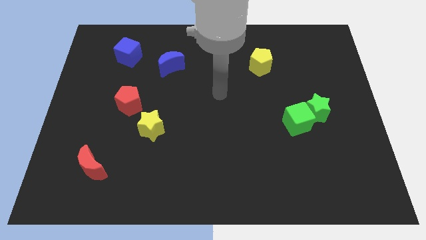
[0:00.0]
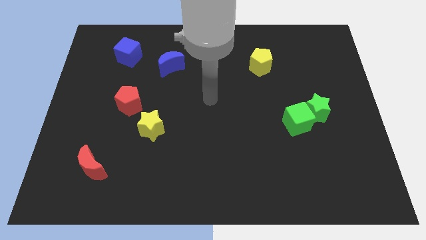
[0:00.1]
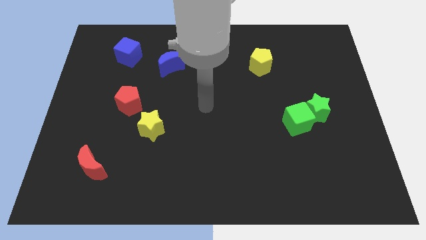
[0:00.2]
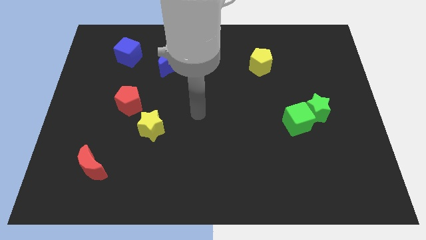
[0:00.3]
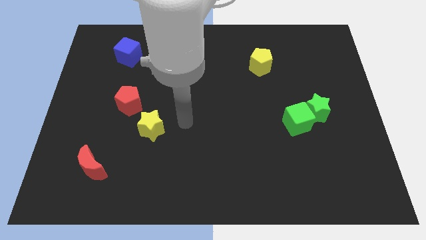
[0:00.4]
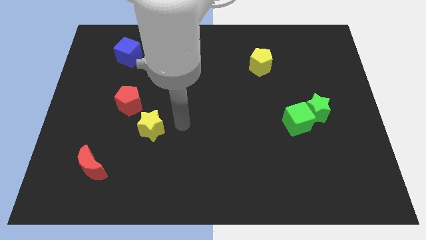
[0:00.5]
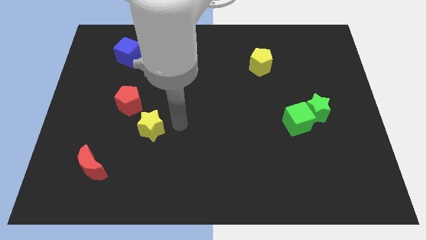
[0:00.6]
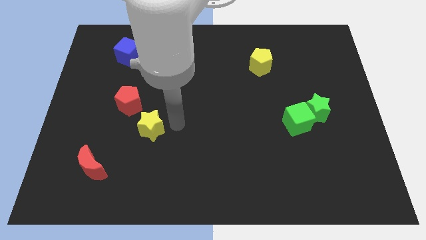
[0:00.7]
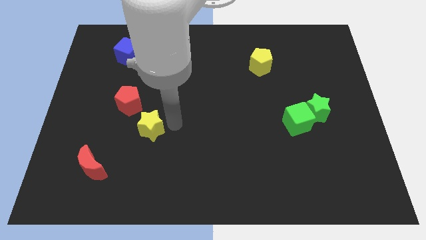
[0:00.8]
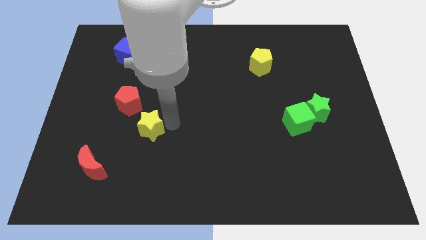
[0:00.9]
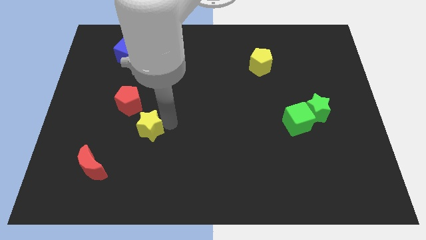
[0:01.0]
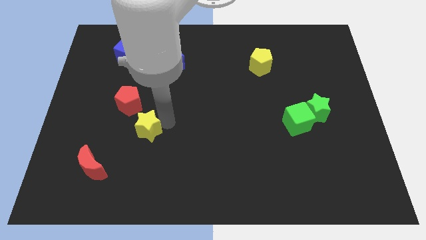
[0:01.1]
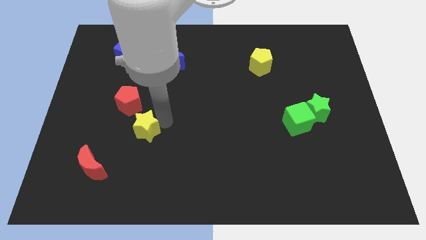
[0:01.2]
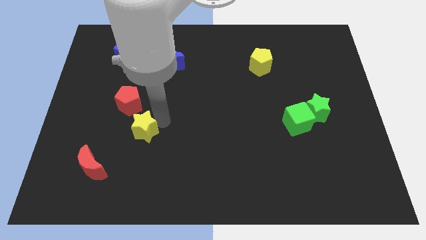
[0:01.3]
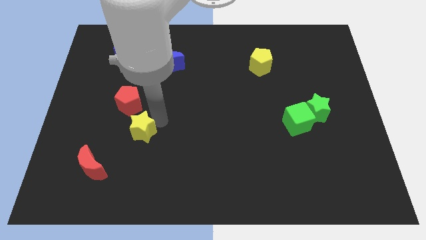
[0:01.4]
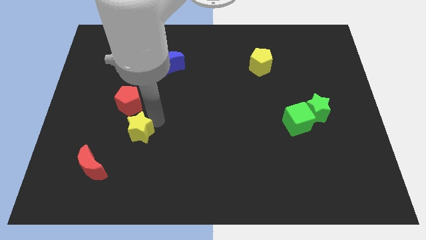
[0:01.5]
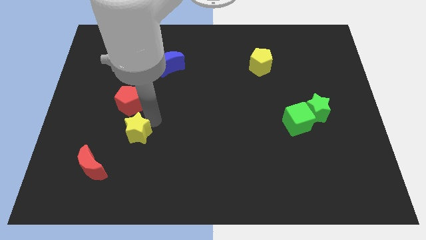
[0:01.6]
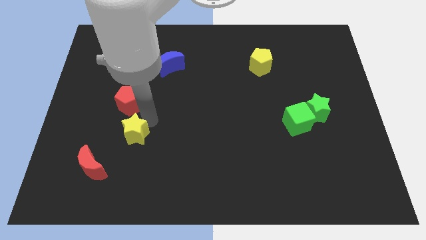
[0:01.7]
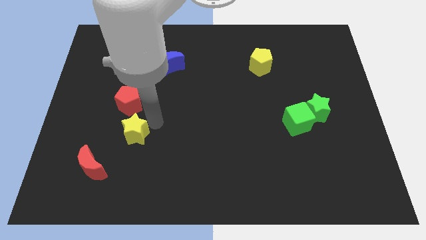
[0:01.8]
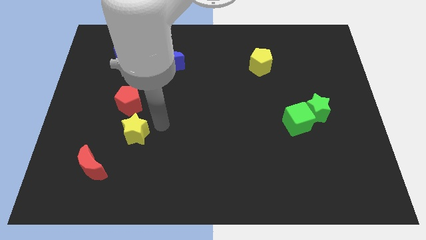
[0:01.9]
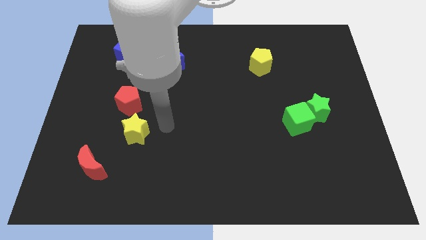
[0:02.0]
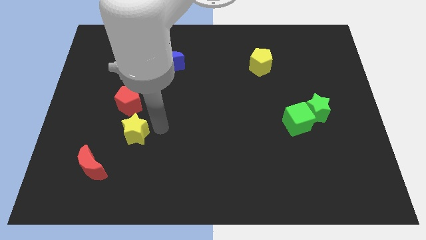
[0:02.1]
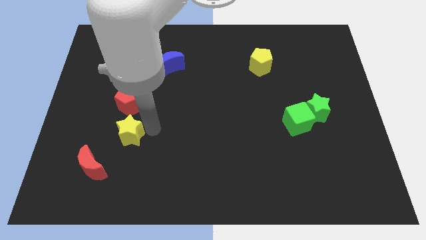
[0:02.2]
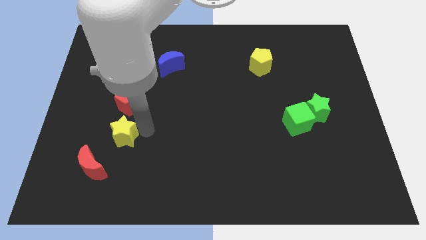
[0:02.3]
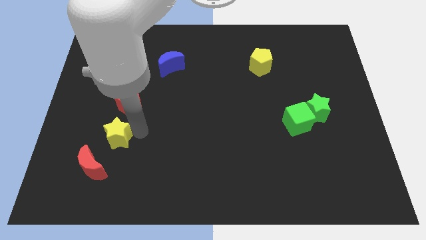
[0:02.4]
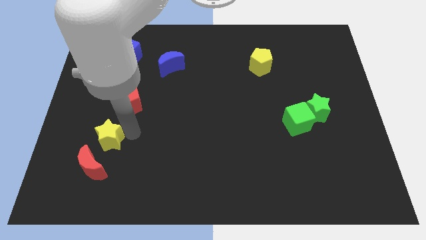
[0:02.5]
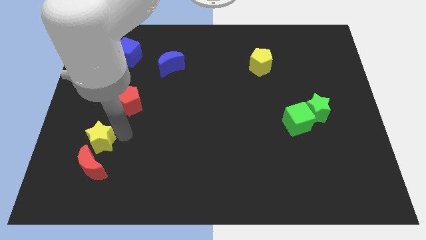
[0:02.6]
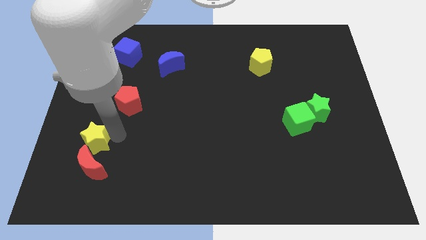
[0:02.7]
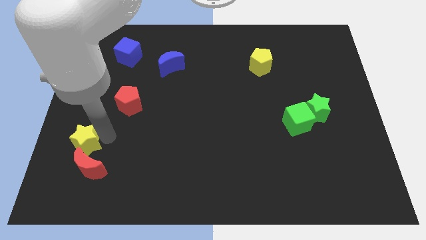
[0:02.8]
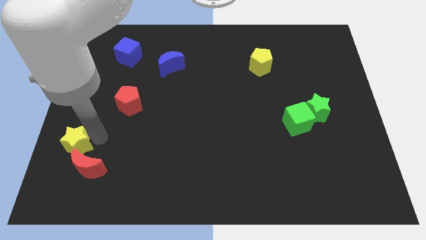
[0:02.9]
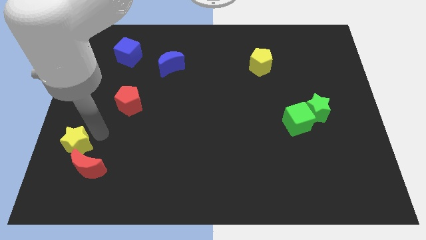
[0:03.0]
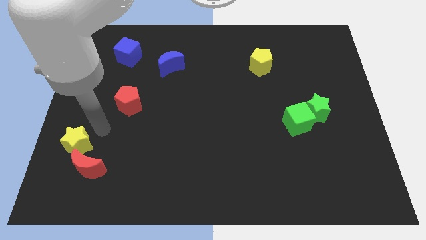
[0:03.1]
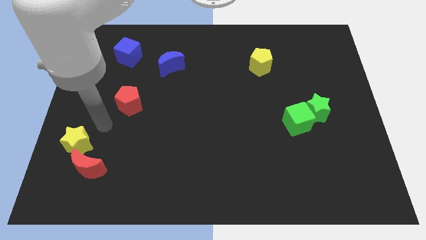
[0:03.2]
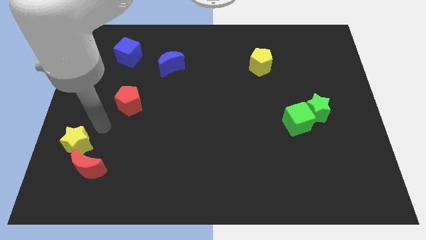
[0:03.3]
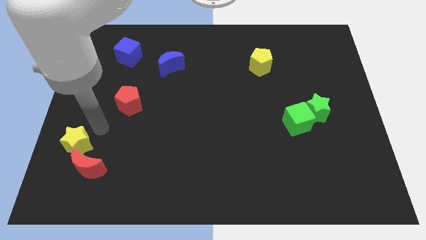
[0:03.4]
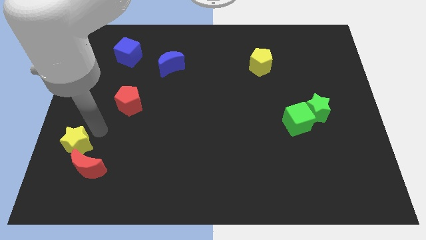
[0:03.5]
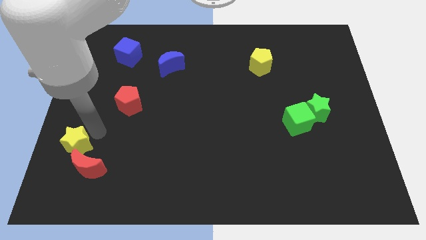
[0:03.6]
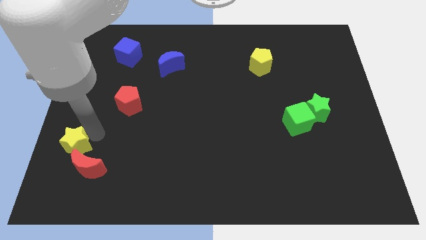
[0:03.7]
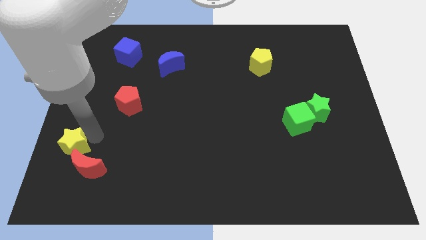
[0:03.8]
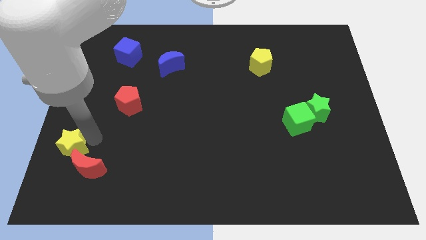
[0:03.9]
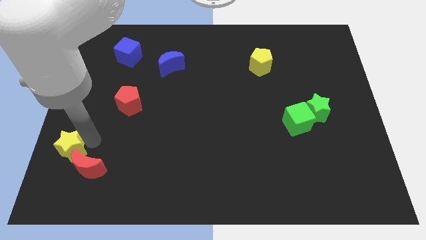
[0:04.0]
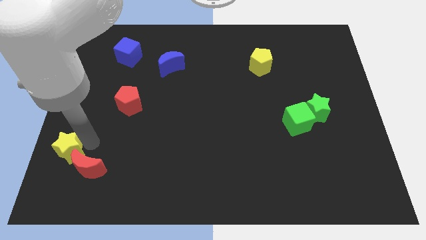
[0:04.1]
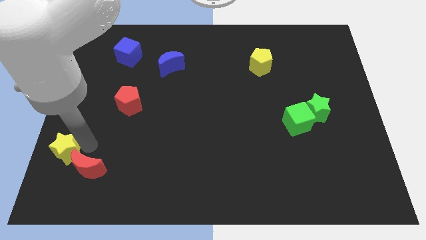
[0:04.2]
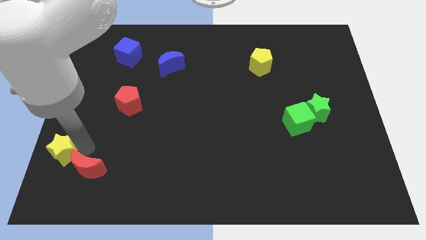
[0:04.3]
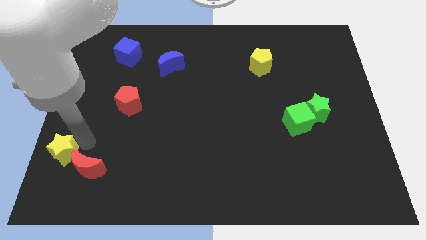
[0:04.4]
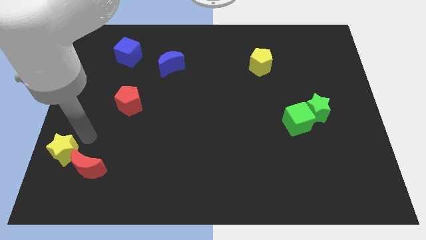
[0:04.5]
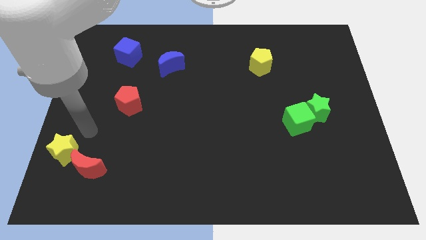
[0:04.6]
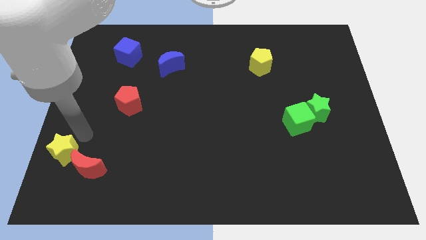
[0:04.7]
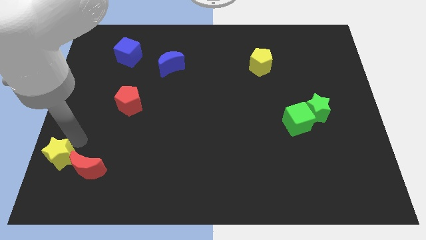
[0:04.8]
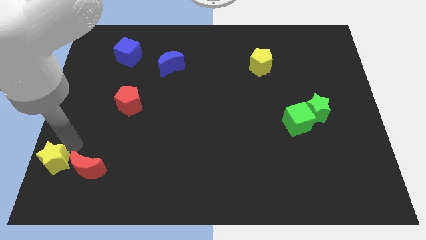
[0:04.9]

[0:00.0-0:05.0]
put the yellow star to the lower left corner

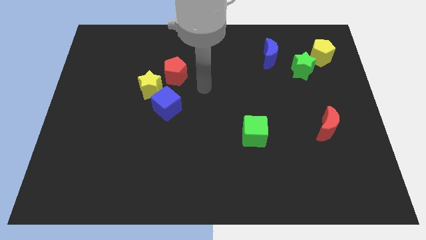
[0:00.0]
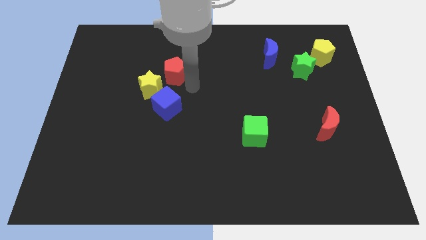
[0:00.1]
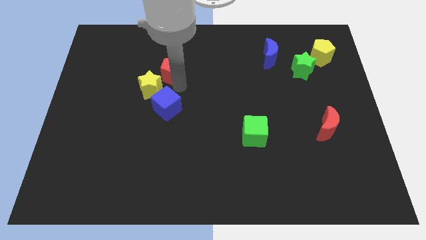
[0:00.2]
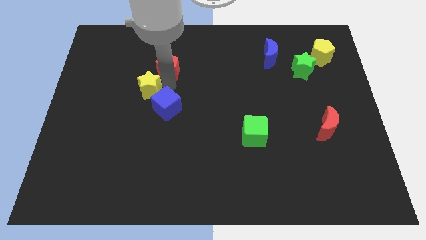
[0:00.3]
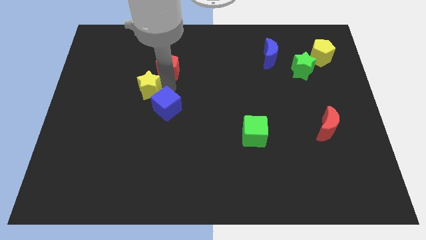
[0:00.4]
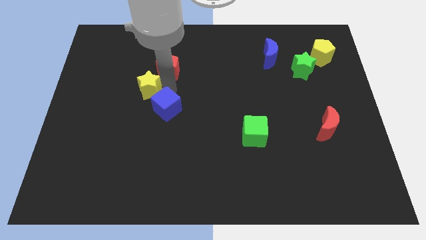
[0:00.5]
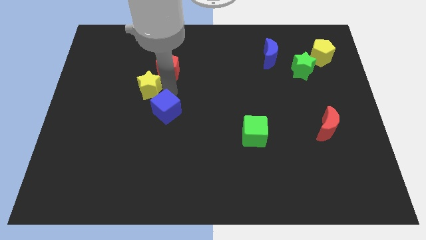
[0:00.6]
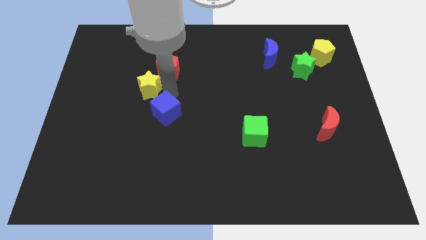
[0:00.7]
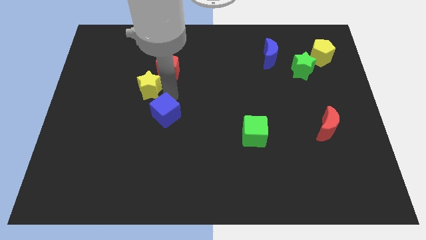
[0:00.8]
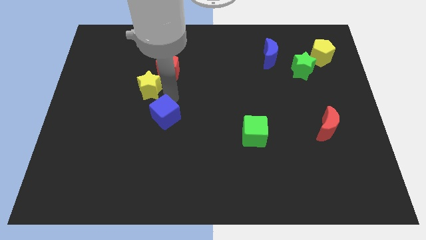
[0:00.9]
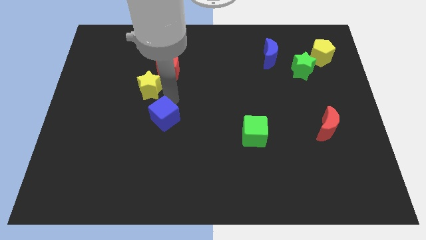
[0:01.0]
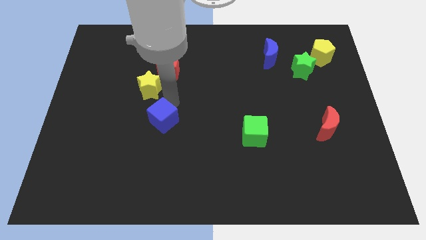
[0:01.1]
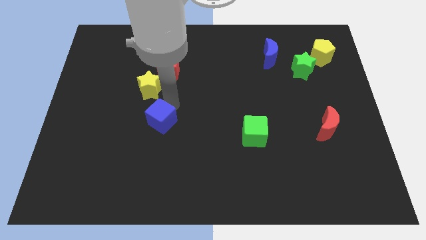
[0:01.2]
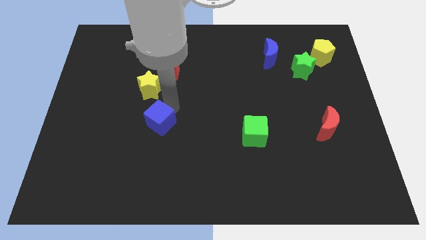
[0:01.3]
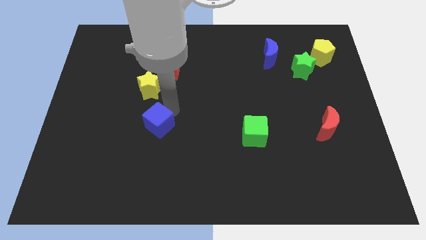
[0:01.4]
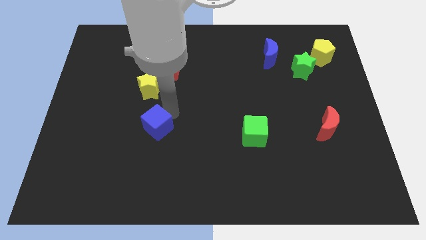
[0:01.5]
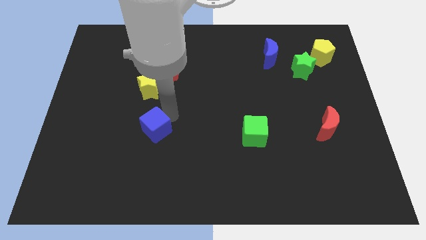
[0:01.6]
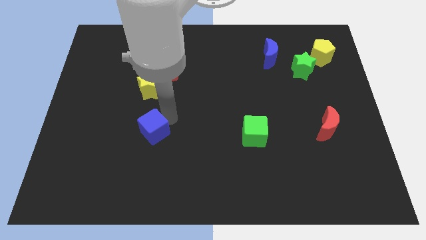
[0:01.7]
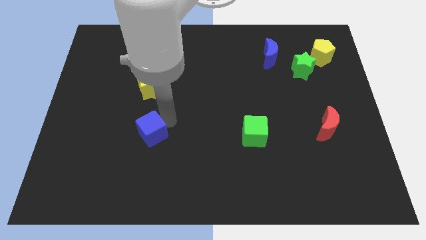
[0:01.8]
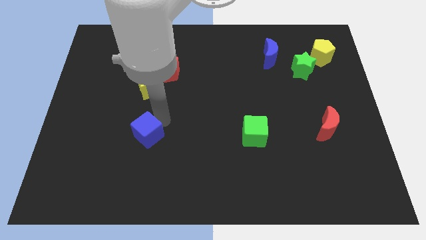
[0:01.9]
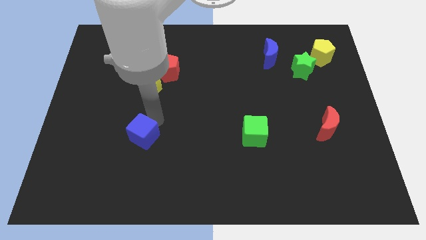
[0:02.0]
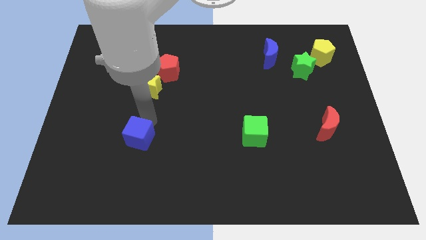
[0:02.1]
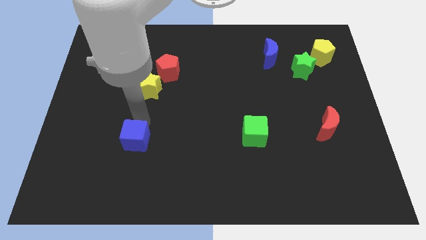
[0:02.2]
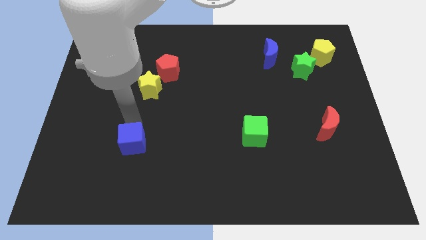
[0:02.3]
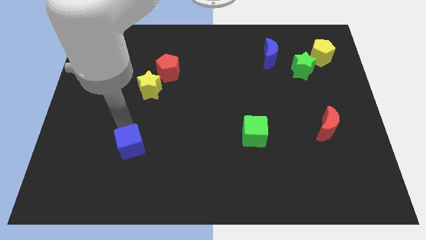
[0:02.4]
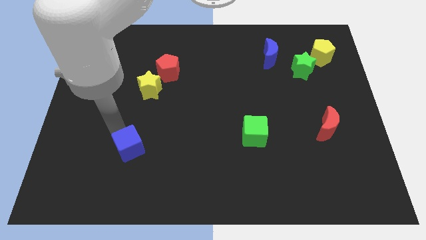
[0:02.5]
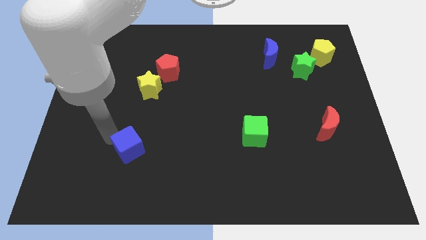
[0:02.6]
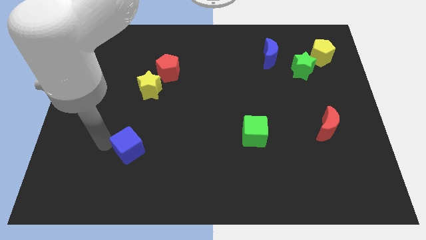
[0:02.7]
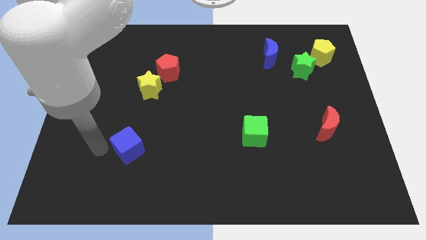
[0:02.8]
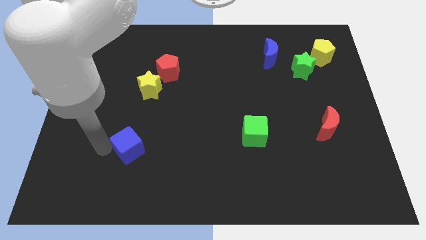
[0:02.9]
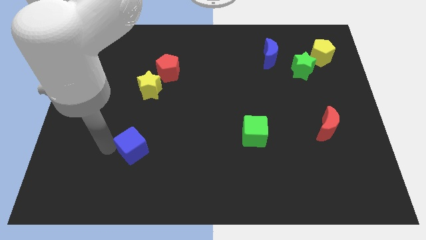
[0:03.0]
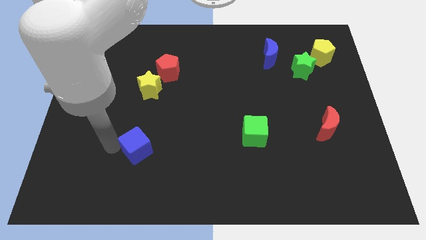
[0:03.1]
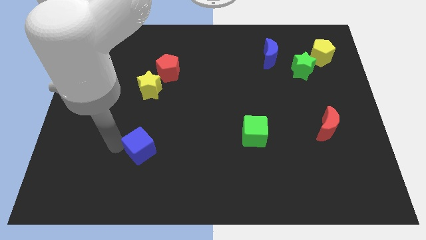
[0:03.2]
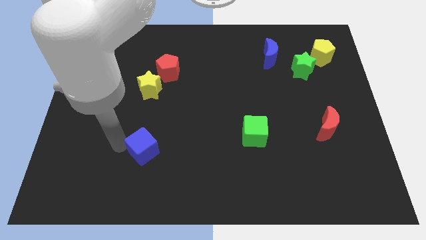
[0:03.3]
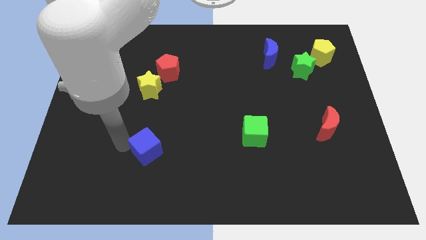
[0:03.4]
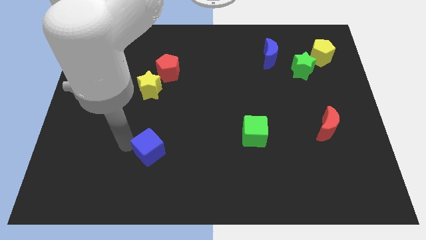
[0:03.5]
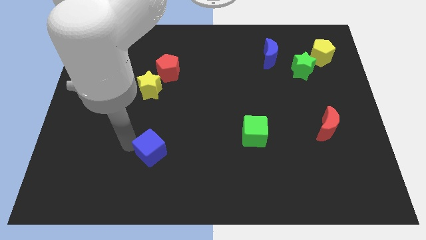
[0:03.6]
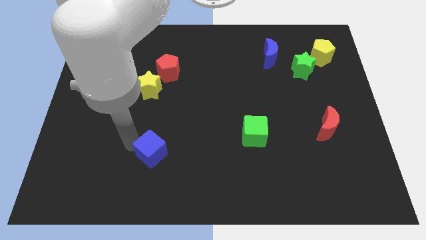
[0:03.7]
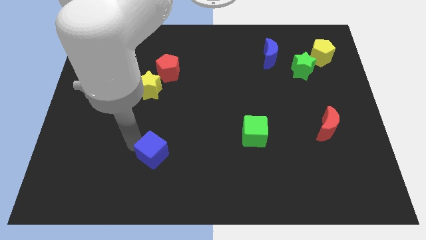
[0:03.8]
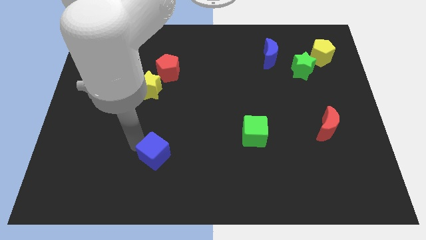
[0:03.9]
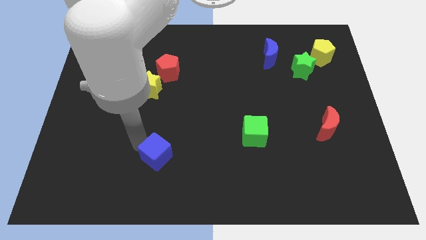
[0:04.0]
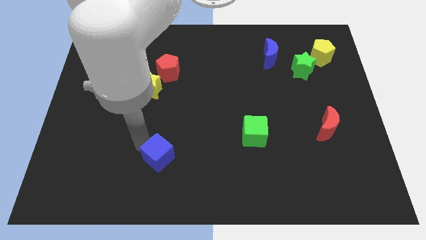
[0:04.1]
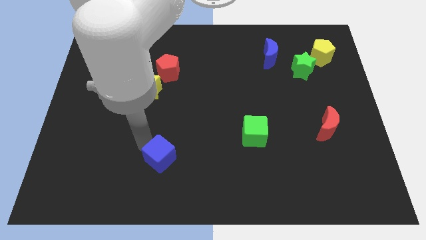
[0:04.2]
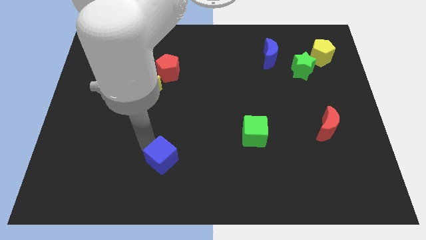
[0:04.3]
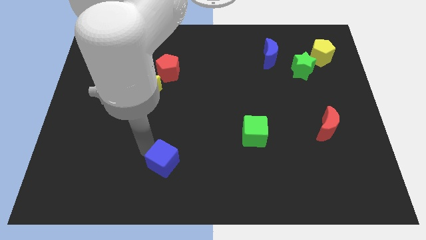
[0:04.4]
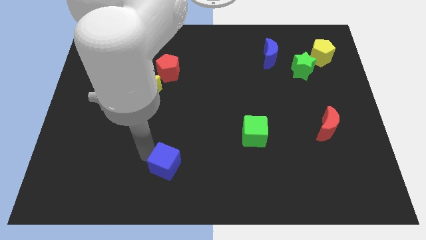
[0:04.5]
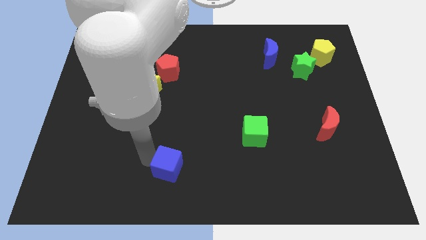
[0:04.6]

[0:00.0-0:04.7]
move the blue cube to the bottom
